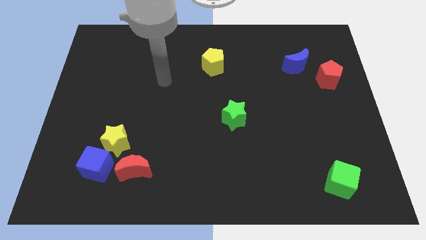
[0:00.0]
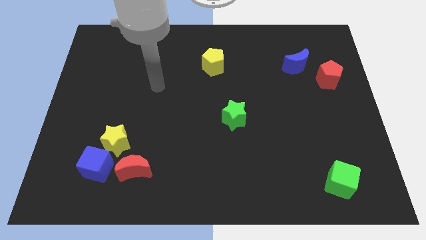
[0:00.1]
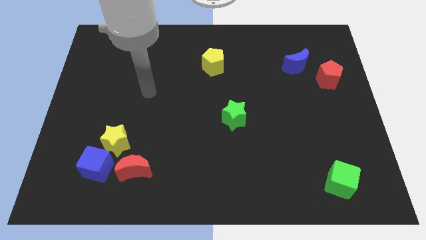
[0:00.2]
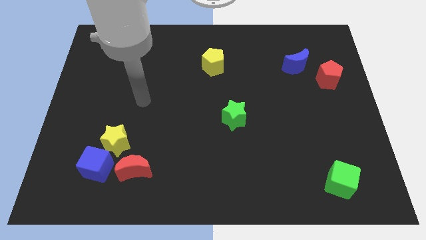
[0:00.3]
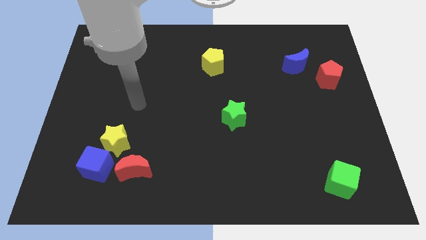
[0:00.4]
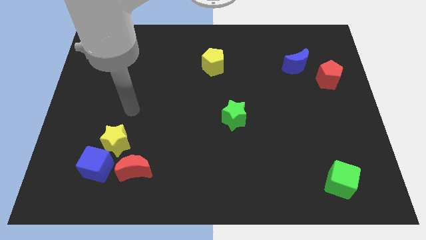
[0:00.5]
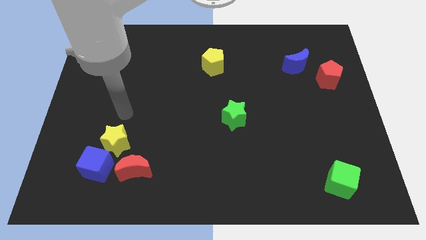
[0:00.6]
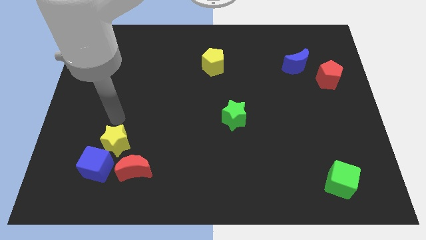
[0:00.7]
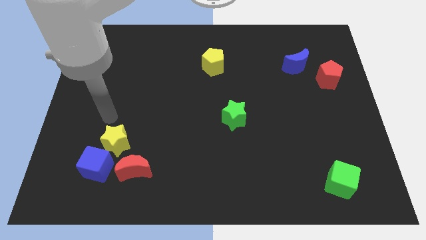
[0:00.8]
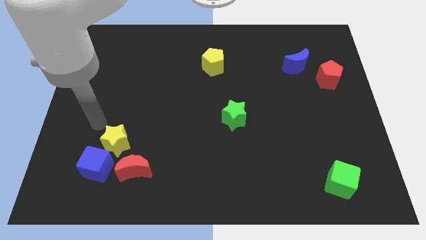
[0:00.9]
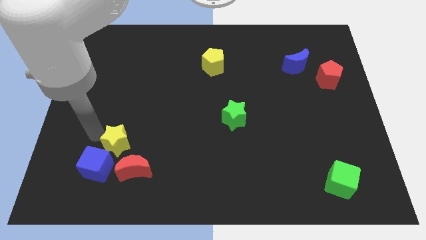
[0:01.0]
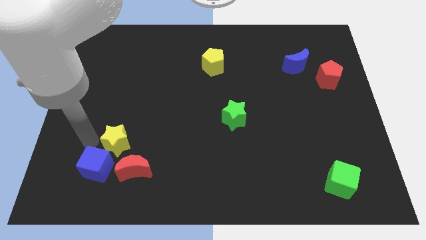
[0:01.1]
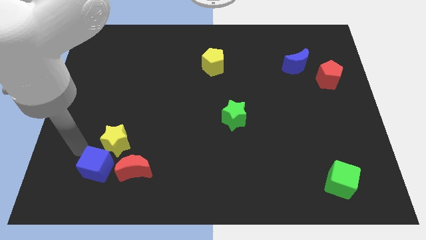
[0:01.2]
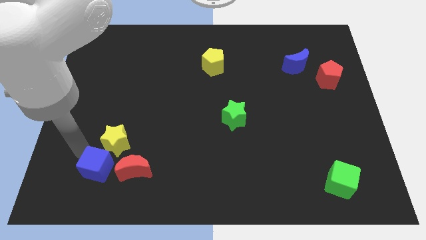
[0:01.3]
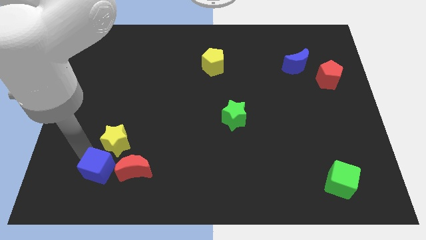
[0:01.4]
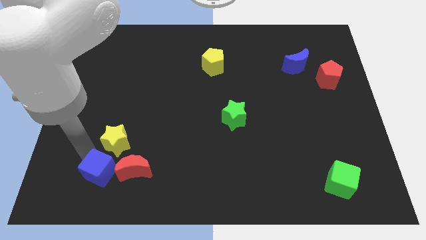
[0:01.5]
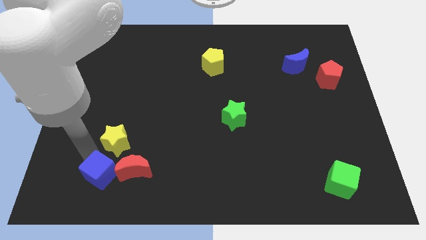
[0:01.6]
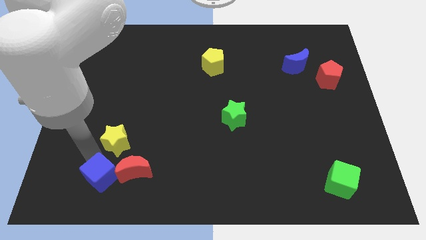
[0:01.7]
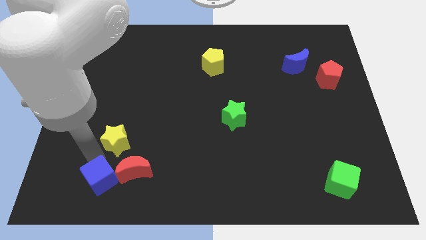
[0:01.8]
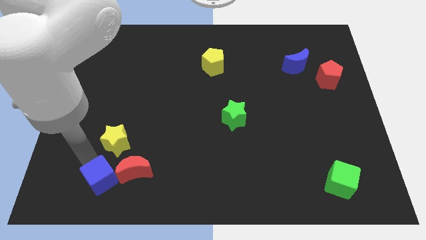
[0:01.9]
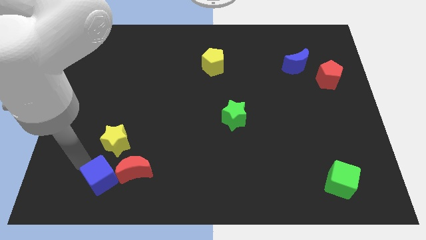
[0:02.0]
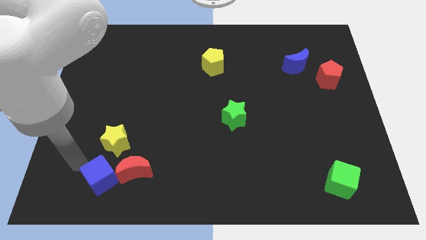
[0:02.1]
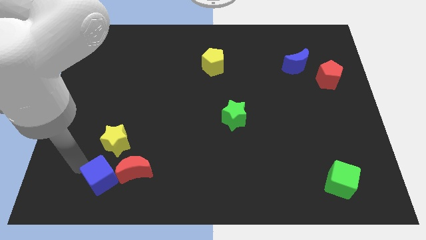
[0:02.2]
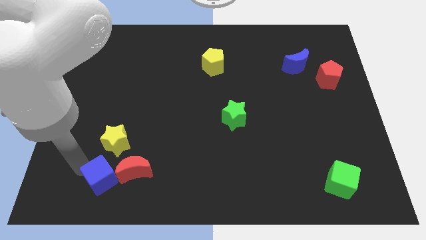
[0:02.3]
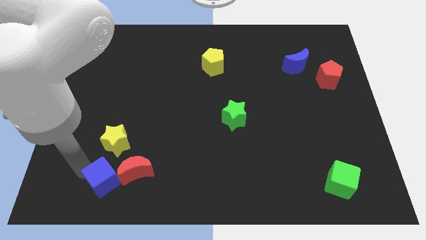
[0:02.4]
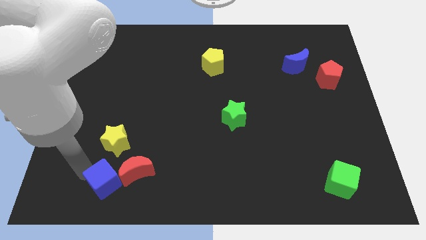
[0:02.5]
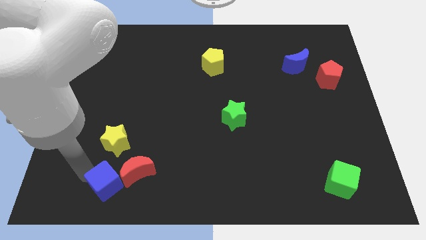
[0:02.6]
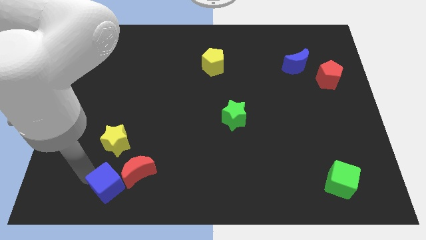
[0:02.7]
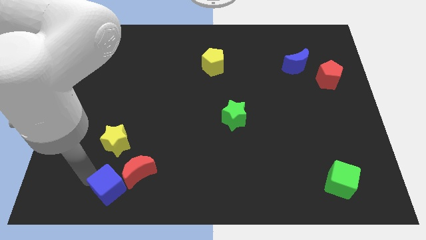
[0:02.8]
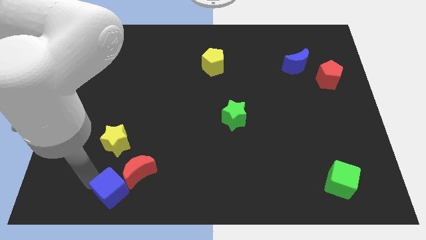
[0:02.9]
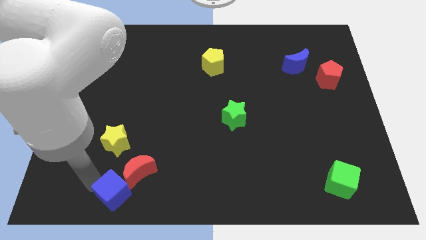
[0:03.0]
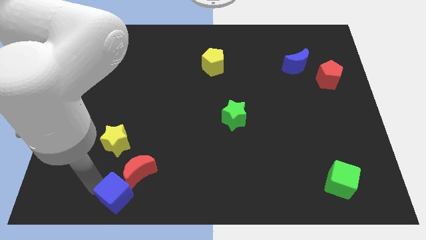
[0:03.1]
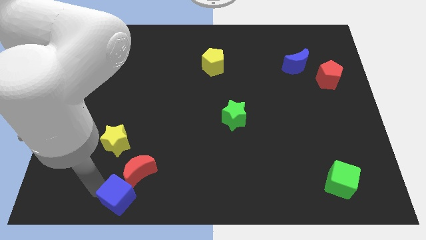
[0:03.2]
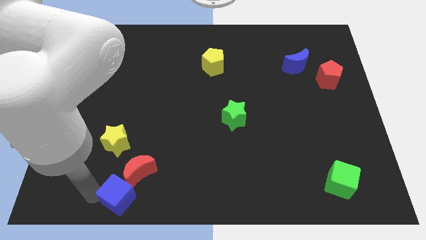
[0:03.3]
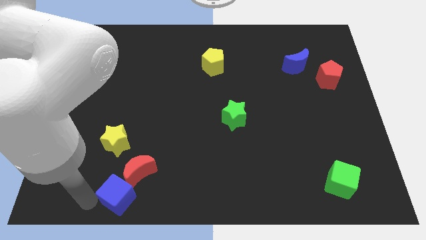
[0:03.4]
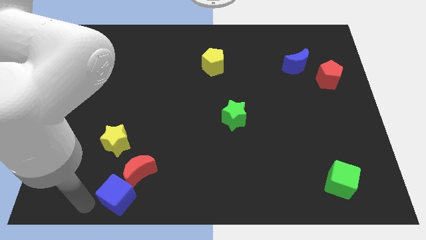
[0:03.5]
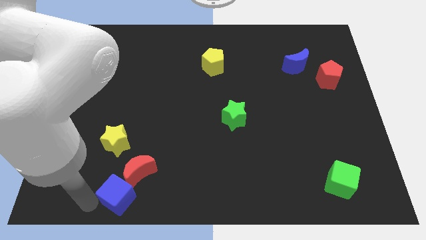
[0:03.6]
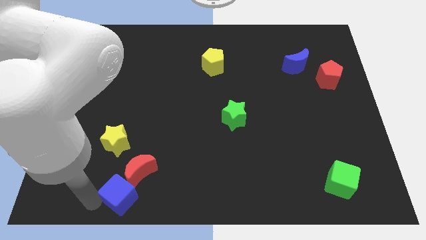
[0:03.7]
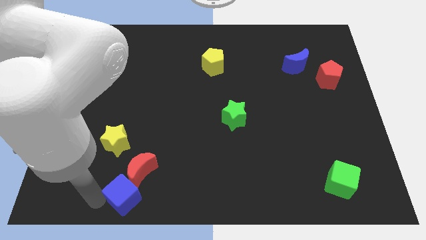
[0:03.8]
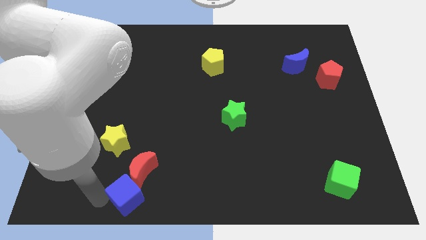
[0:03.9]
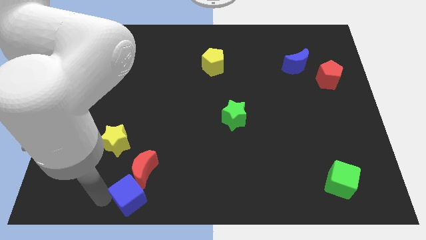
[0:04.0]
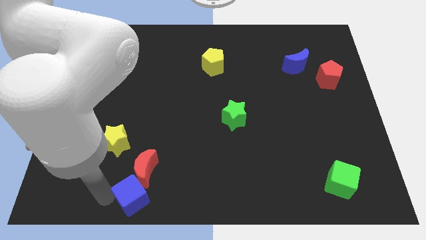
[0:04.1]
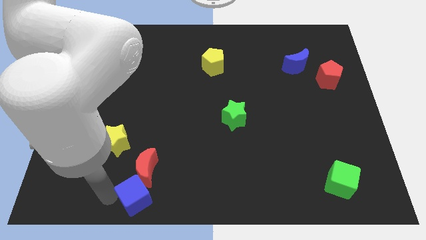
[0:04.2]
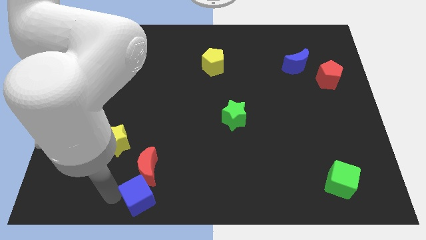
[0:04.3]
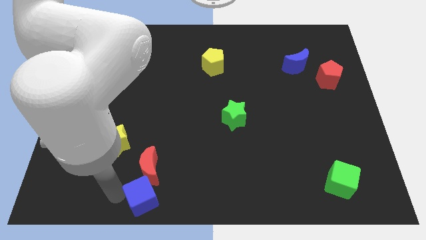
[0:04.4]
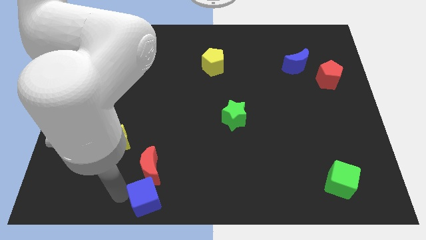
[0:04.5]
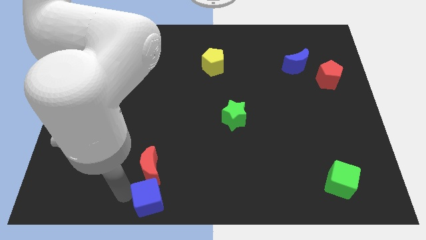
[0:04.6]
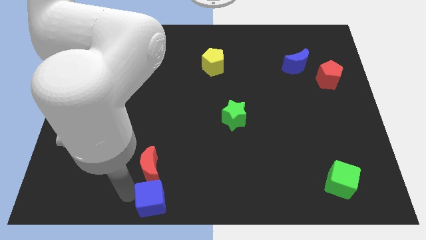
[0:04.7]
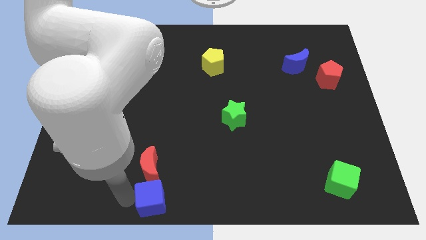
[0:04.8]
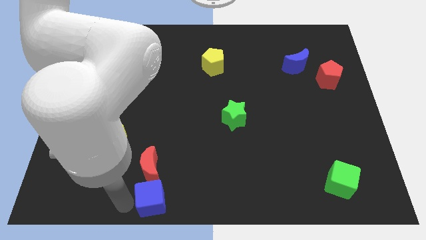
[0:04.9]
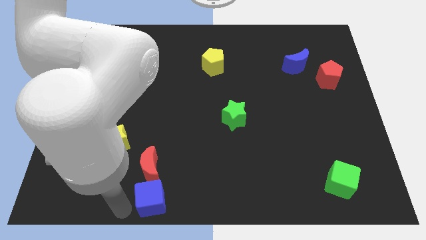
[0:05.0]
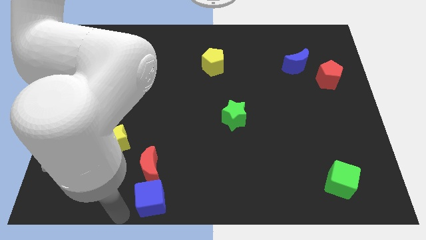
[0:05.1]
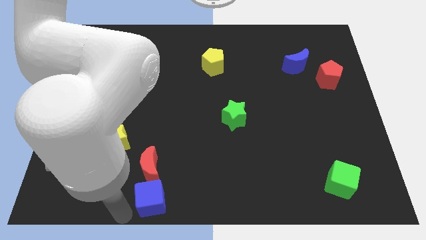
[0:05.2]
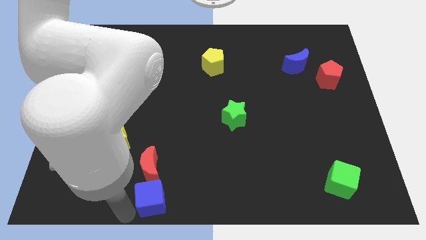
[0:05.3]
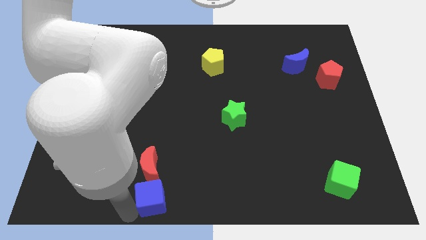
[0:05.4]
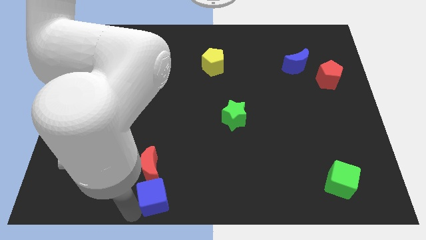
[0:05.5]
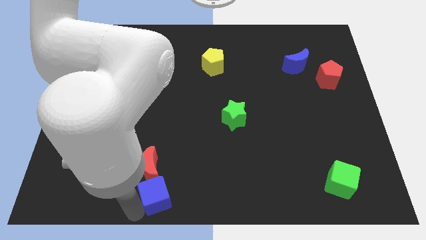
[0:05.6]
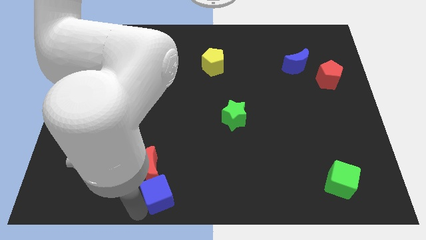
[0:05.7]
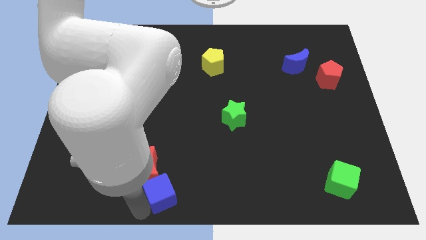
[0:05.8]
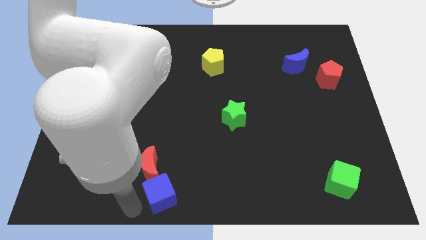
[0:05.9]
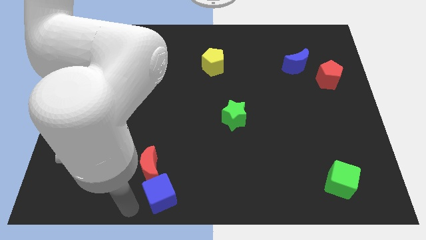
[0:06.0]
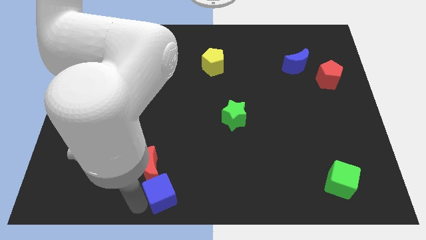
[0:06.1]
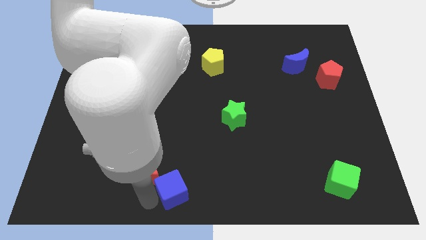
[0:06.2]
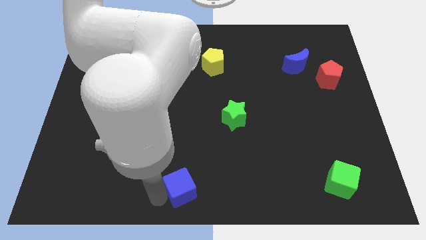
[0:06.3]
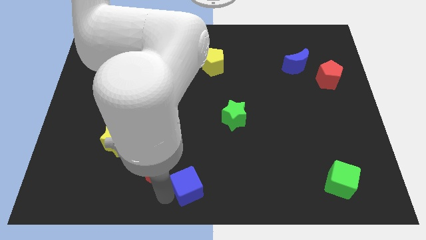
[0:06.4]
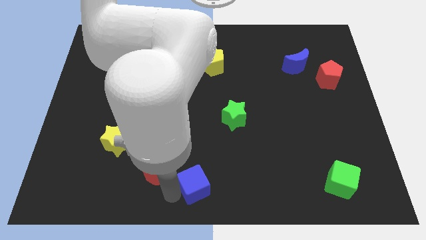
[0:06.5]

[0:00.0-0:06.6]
slide the blue cube to the right

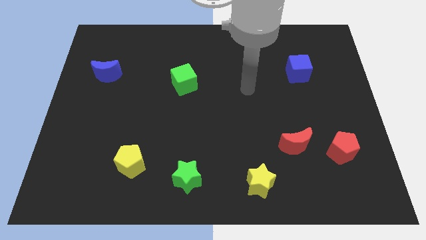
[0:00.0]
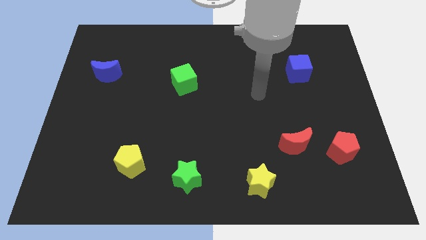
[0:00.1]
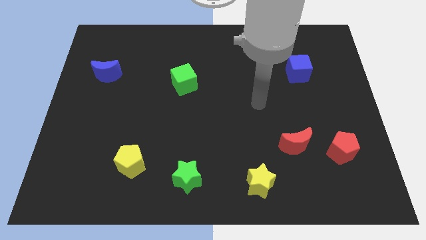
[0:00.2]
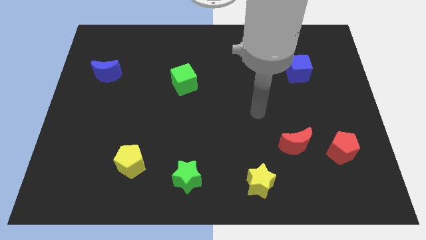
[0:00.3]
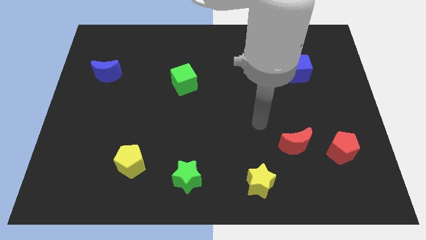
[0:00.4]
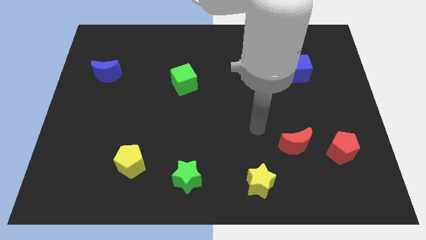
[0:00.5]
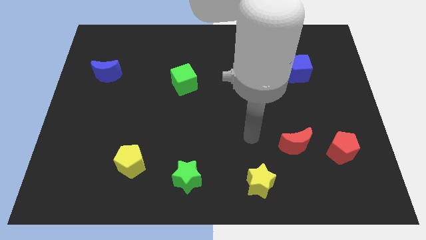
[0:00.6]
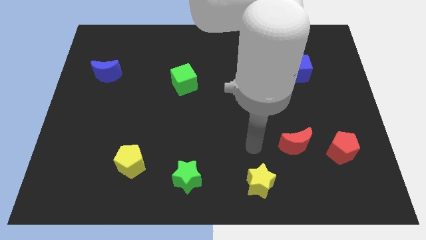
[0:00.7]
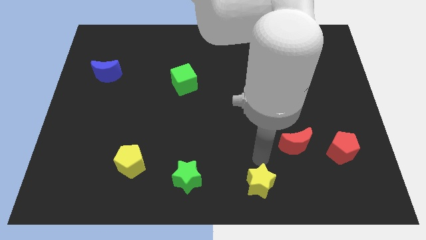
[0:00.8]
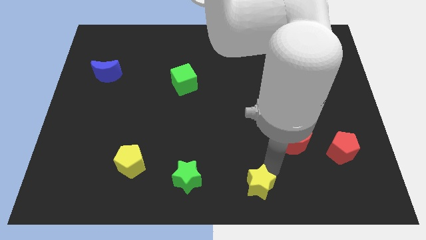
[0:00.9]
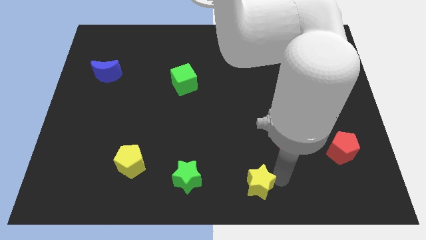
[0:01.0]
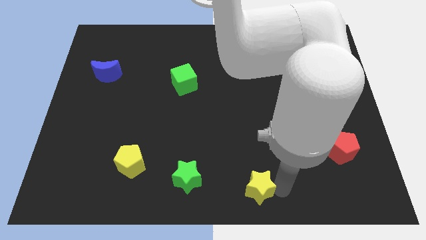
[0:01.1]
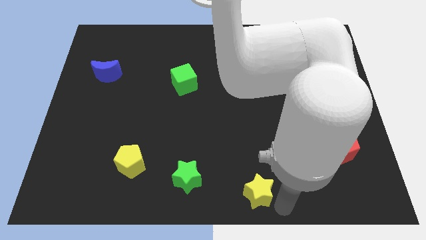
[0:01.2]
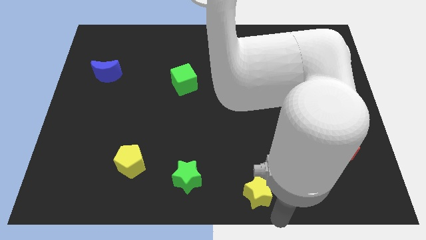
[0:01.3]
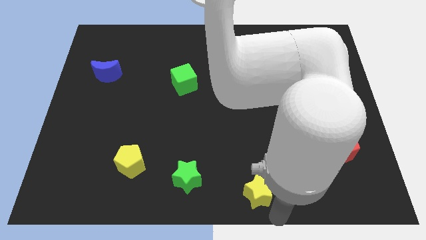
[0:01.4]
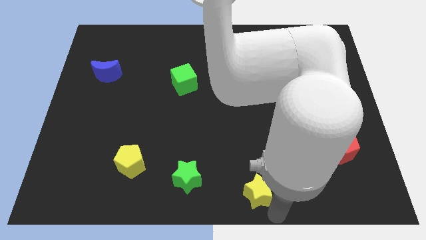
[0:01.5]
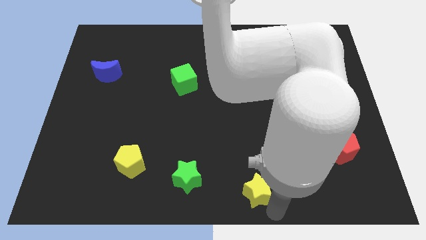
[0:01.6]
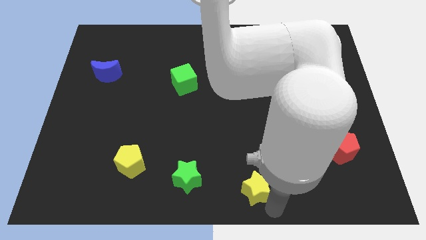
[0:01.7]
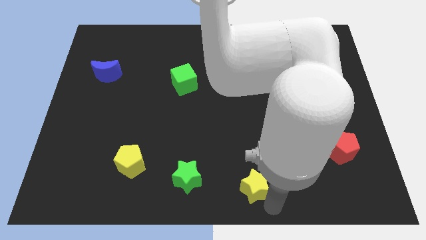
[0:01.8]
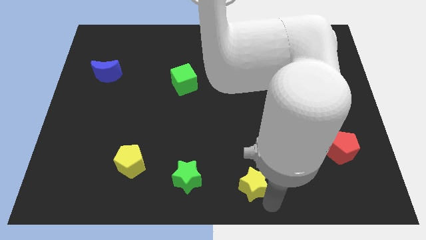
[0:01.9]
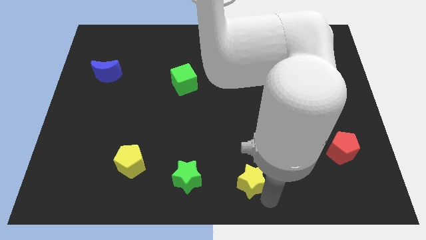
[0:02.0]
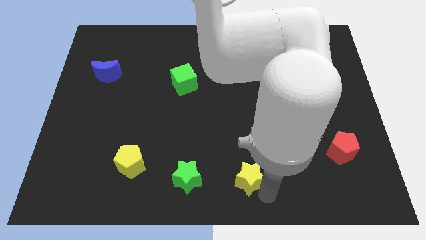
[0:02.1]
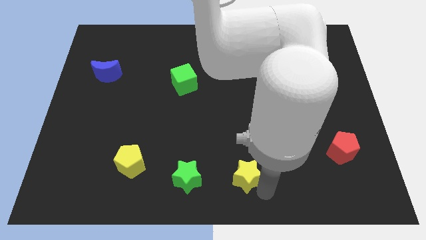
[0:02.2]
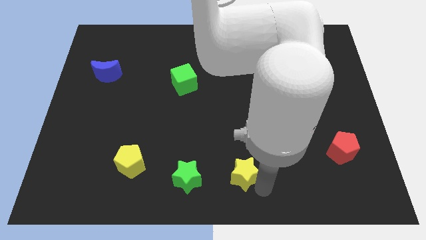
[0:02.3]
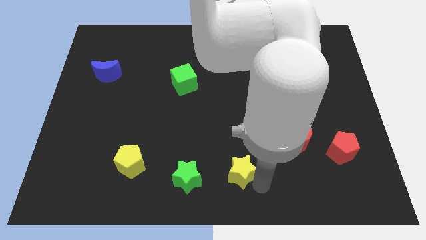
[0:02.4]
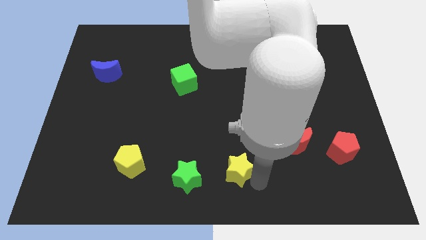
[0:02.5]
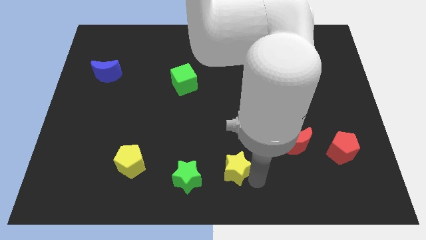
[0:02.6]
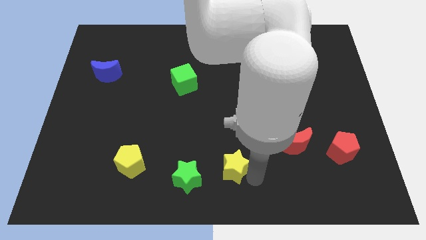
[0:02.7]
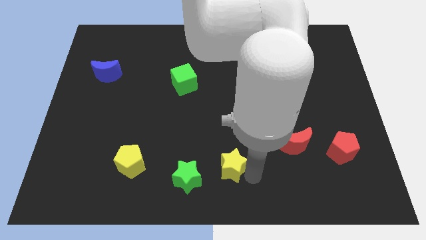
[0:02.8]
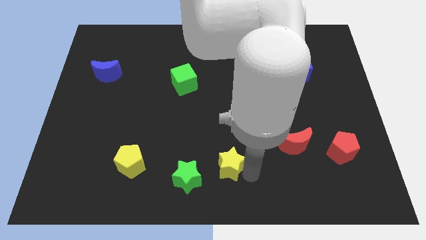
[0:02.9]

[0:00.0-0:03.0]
slide the yellow star upwards and left diagonally slightly
